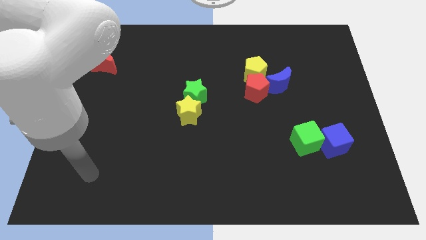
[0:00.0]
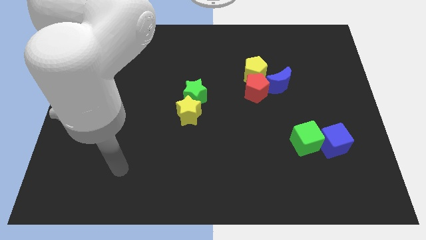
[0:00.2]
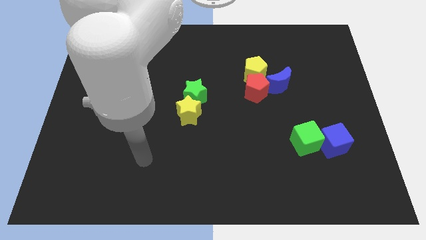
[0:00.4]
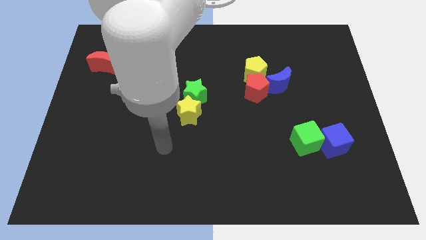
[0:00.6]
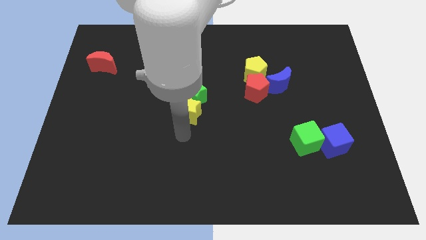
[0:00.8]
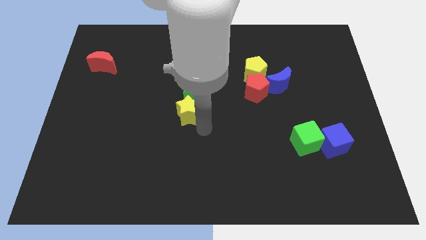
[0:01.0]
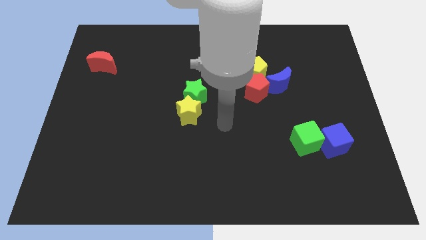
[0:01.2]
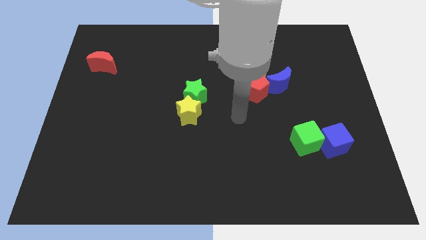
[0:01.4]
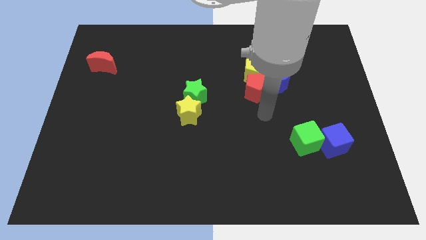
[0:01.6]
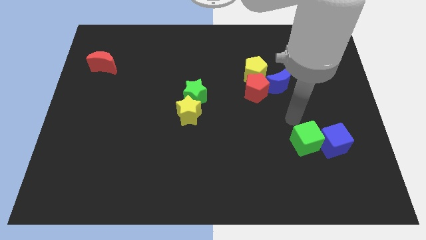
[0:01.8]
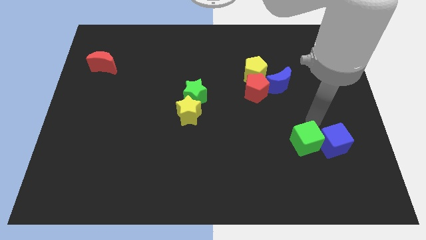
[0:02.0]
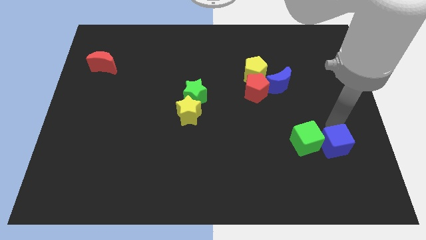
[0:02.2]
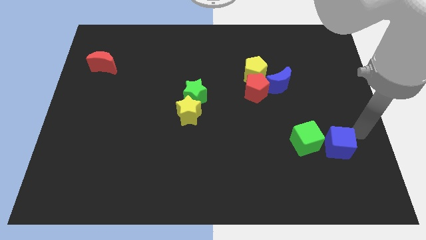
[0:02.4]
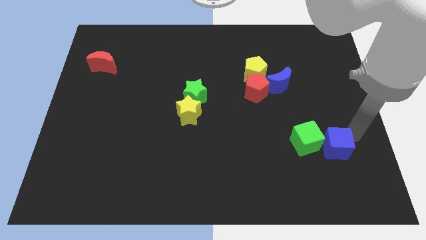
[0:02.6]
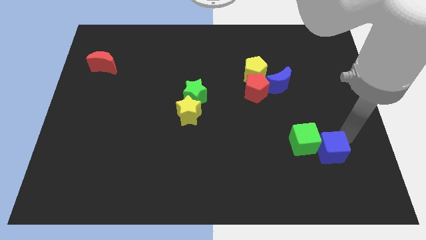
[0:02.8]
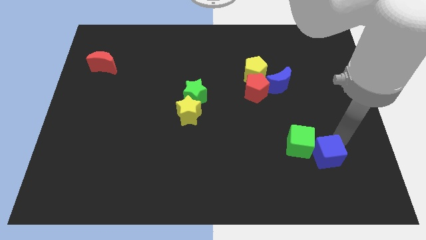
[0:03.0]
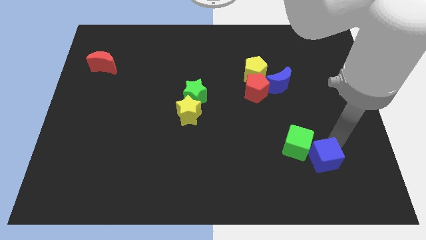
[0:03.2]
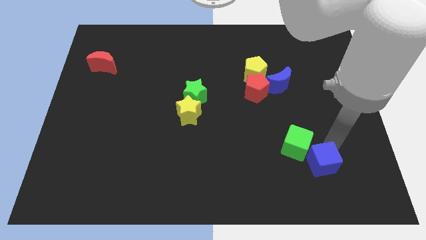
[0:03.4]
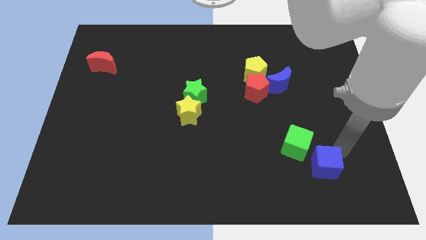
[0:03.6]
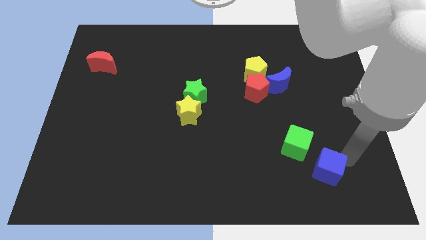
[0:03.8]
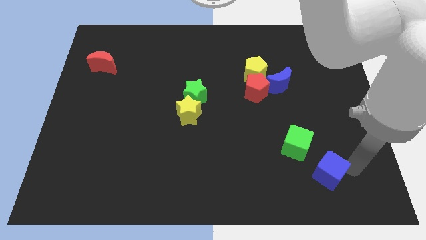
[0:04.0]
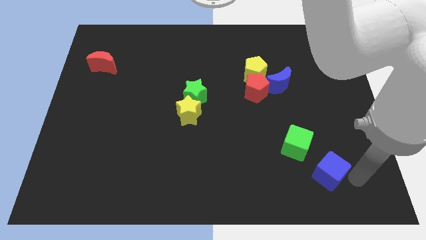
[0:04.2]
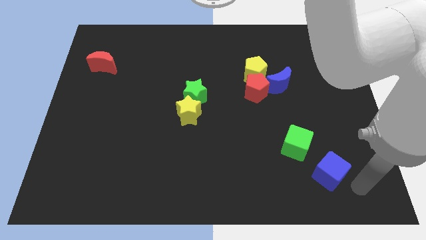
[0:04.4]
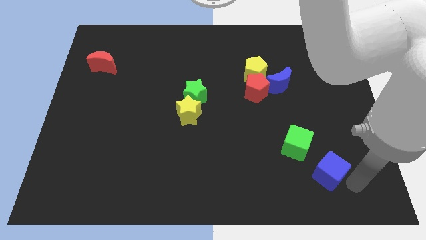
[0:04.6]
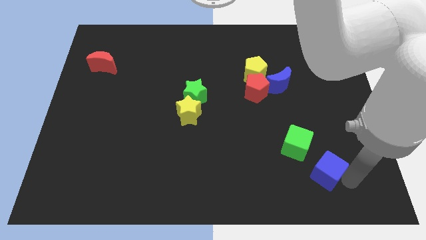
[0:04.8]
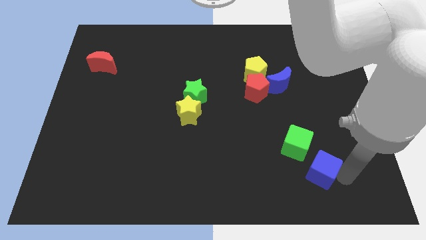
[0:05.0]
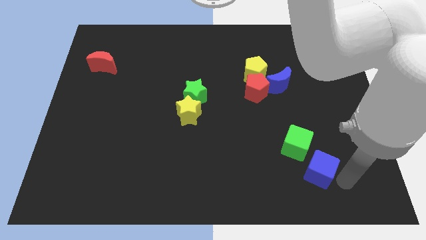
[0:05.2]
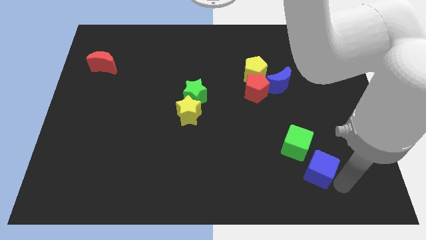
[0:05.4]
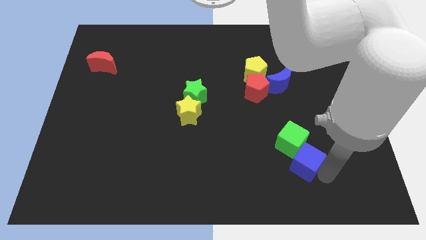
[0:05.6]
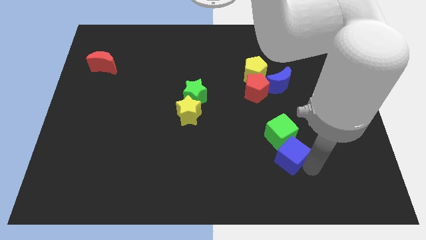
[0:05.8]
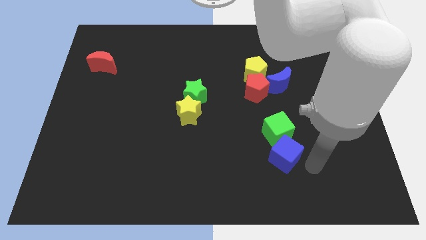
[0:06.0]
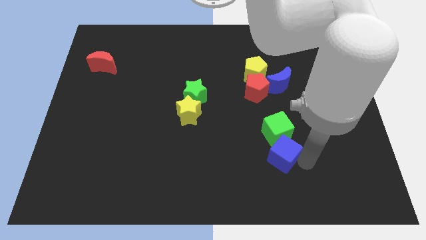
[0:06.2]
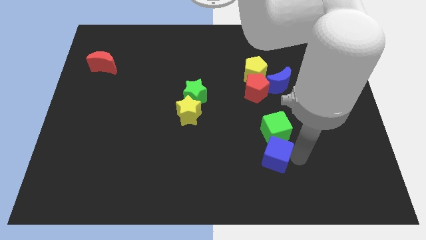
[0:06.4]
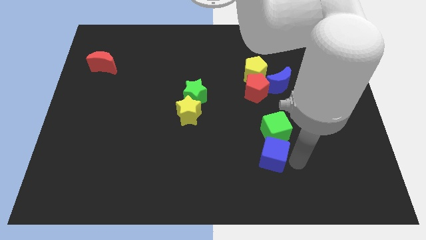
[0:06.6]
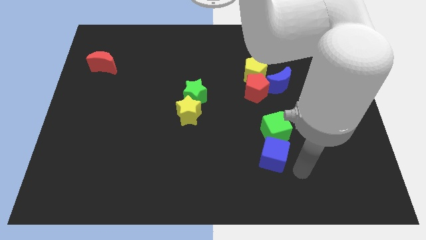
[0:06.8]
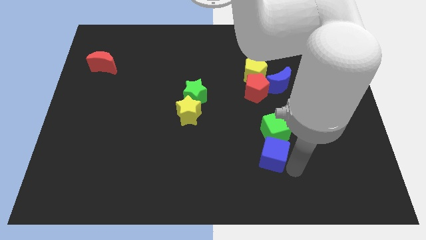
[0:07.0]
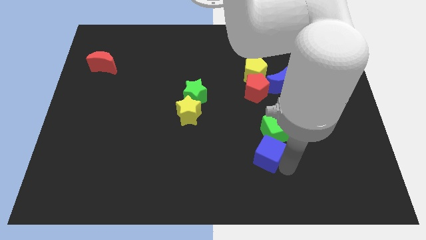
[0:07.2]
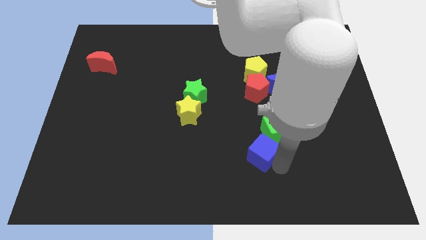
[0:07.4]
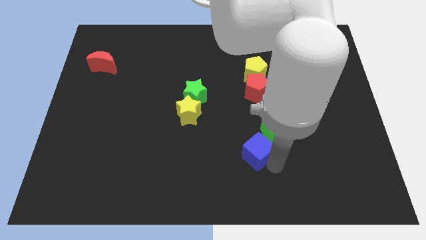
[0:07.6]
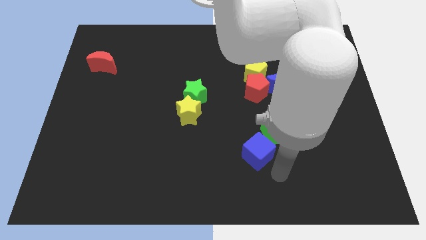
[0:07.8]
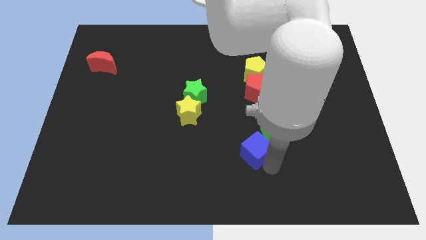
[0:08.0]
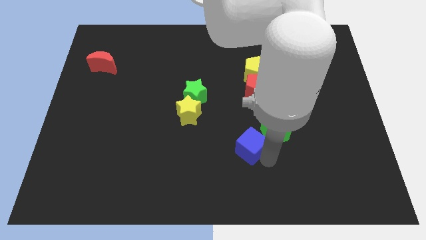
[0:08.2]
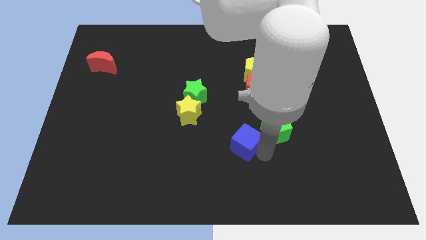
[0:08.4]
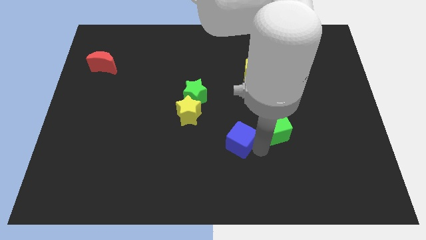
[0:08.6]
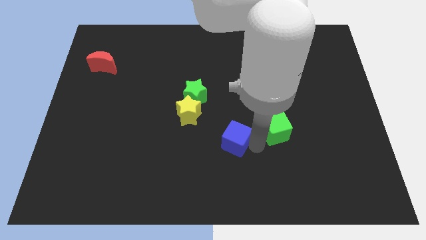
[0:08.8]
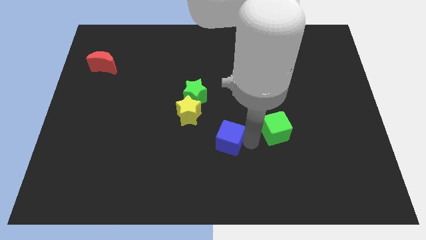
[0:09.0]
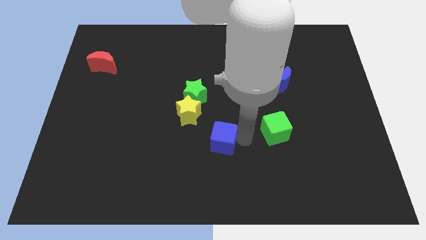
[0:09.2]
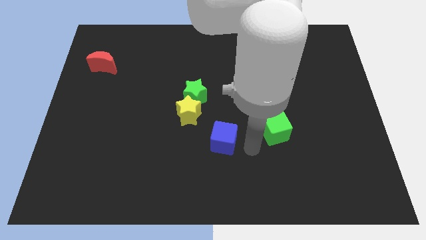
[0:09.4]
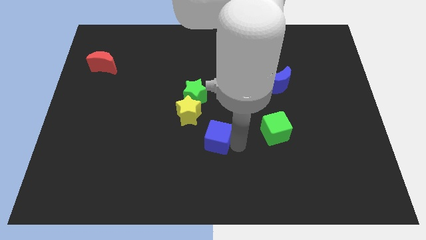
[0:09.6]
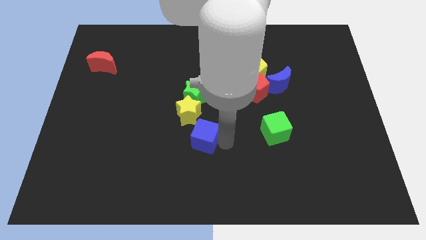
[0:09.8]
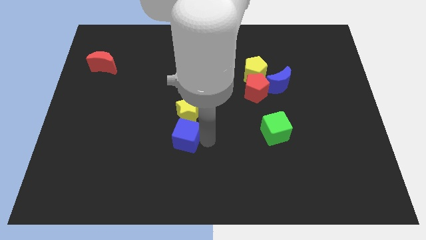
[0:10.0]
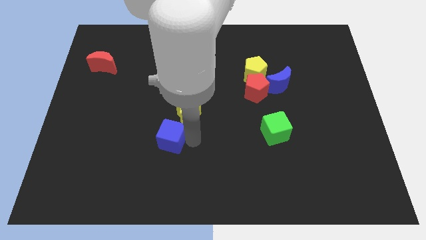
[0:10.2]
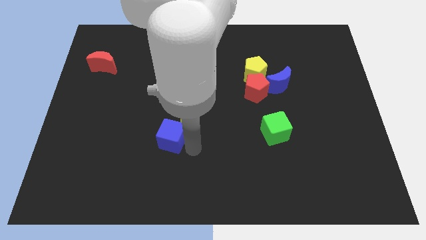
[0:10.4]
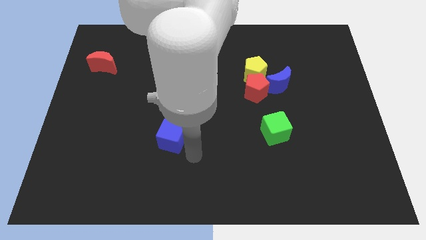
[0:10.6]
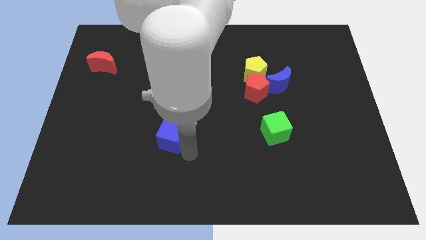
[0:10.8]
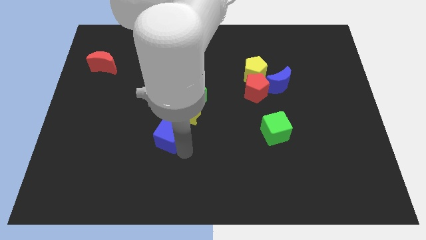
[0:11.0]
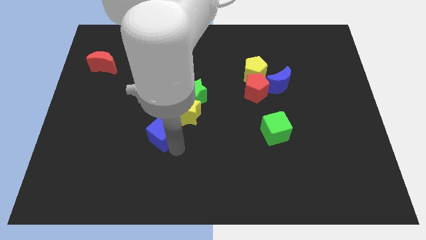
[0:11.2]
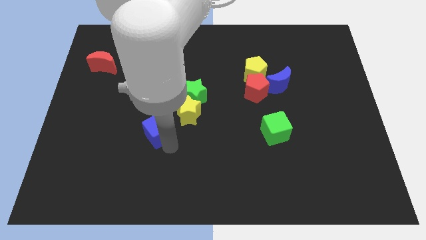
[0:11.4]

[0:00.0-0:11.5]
push the blue cube just left of the yellow star

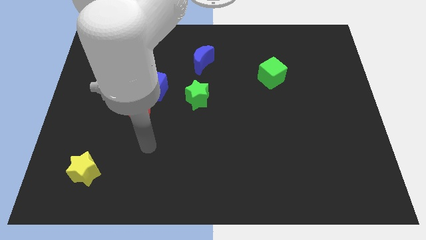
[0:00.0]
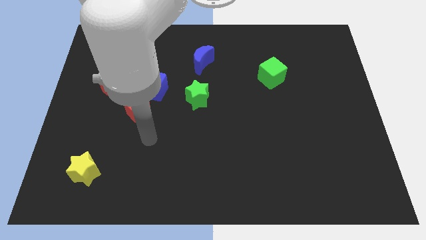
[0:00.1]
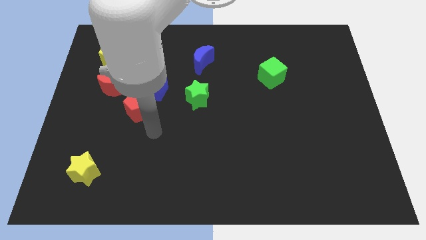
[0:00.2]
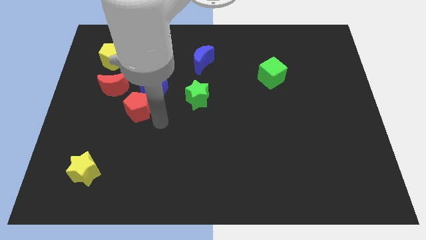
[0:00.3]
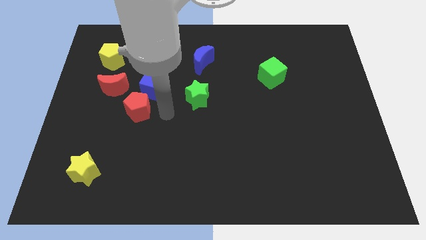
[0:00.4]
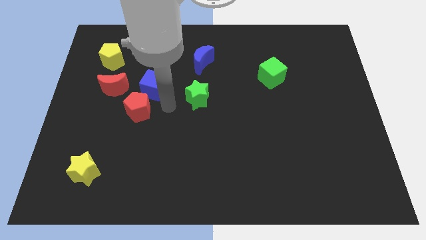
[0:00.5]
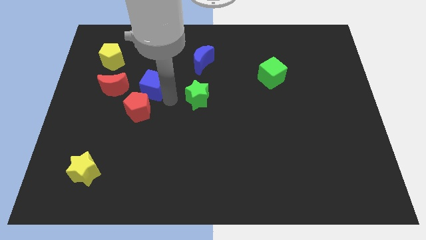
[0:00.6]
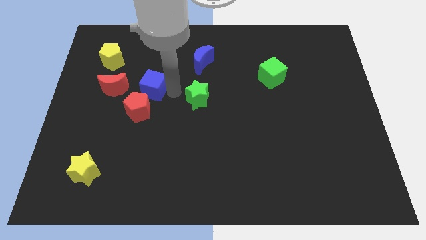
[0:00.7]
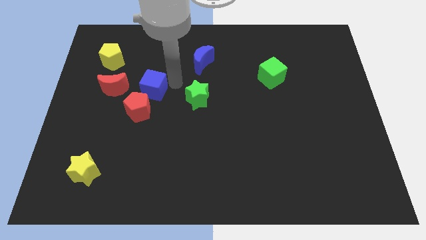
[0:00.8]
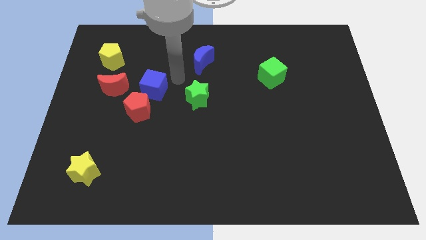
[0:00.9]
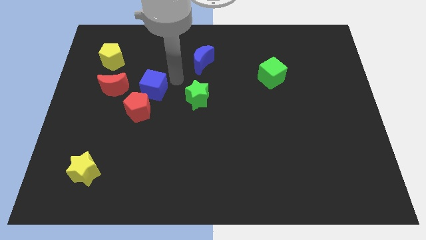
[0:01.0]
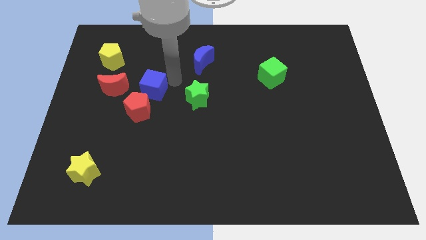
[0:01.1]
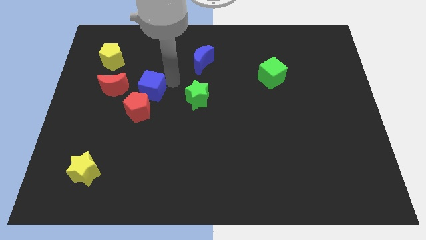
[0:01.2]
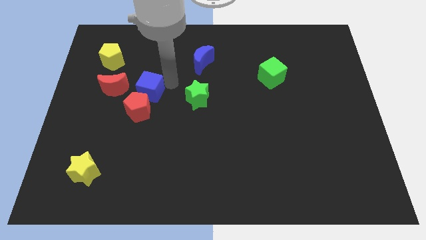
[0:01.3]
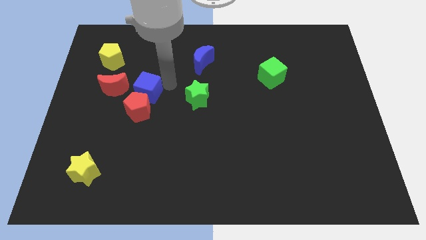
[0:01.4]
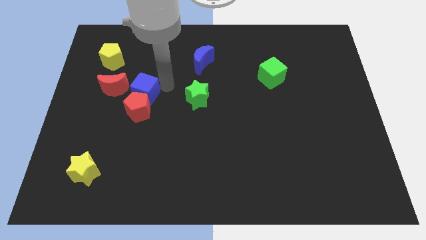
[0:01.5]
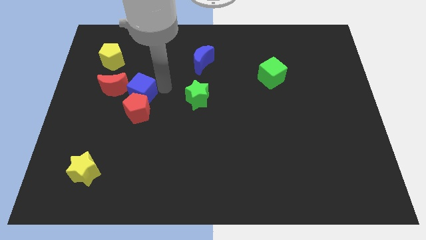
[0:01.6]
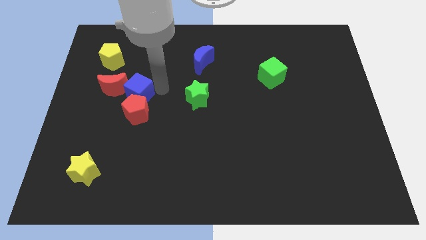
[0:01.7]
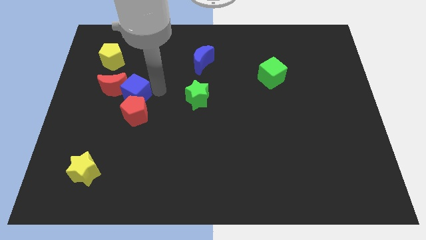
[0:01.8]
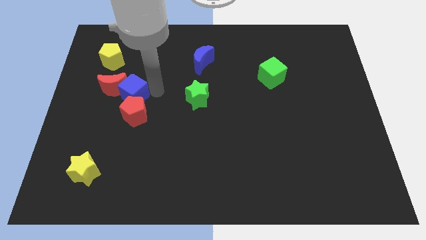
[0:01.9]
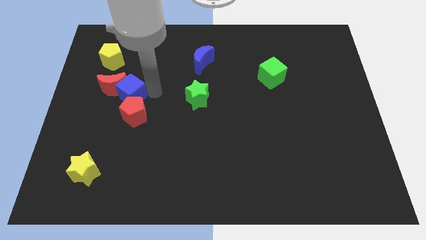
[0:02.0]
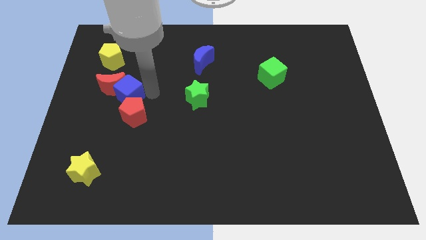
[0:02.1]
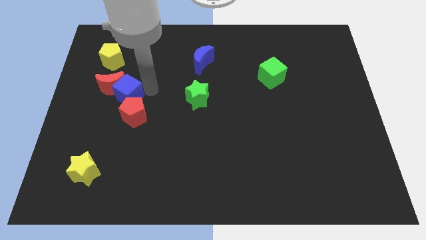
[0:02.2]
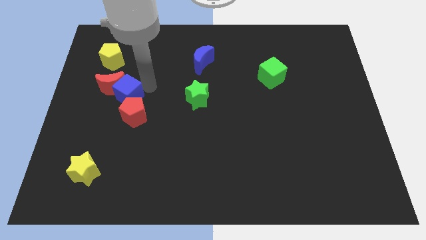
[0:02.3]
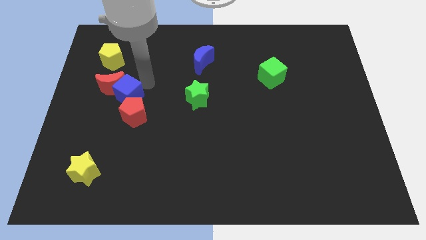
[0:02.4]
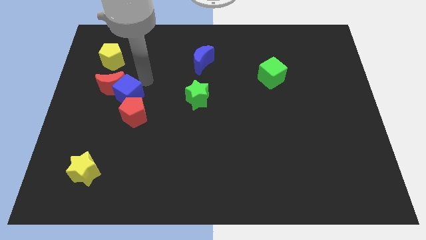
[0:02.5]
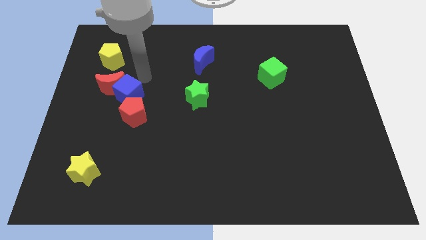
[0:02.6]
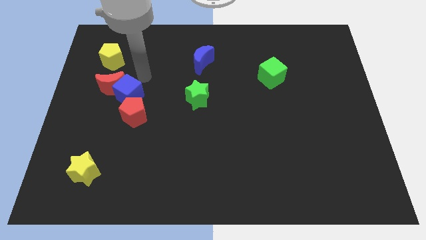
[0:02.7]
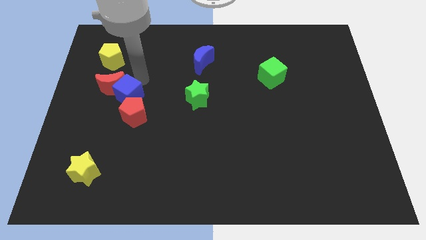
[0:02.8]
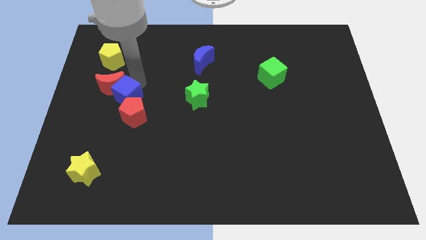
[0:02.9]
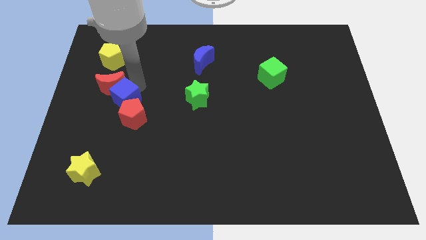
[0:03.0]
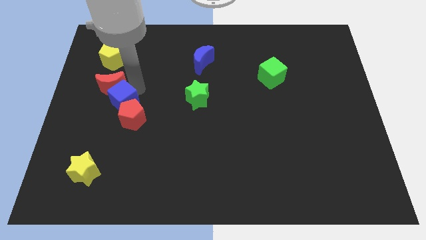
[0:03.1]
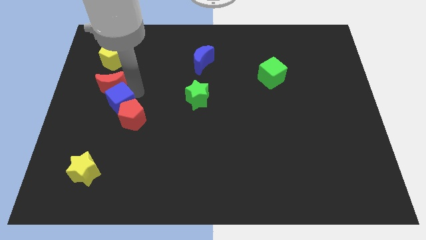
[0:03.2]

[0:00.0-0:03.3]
push the blue cube to the left of the red pentagon
